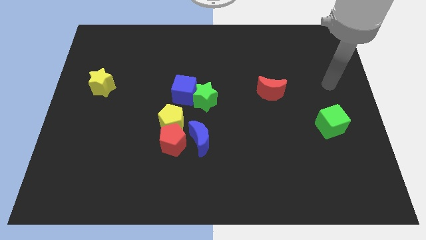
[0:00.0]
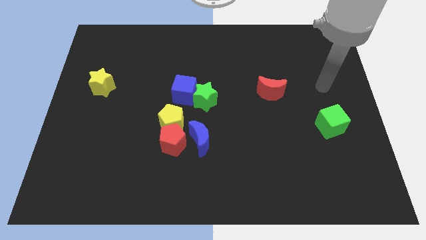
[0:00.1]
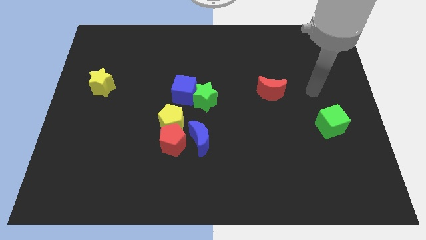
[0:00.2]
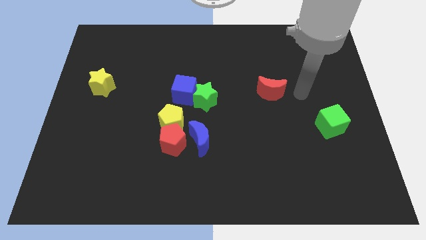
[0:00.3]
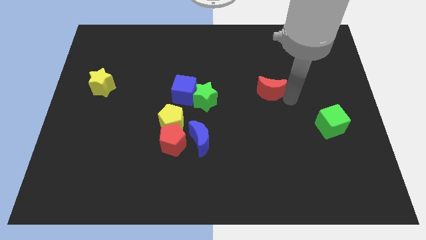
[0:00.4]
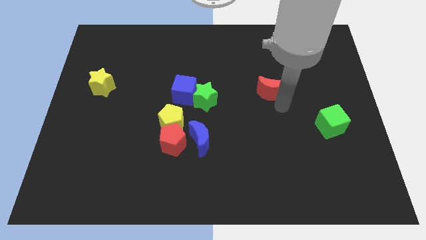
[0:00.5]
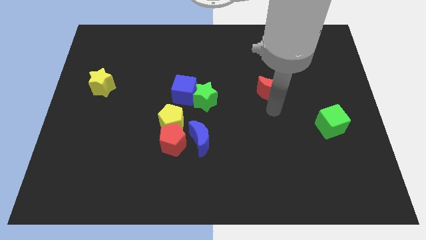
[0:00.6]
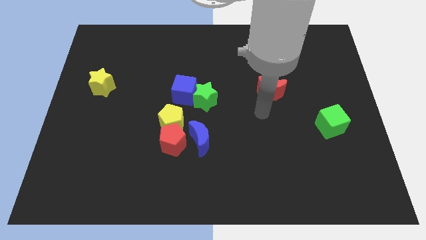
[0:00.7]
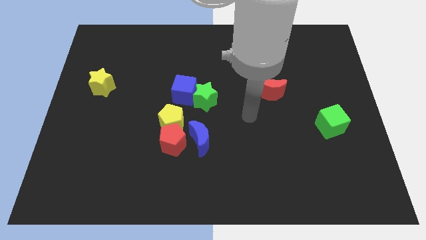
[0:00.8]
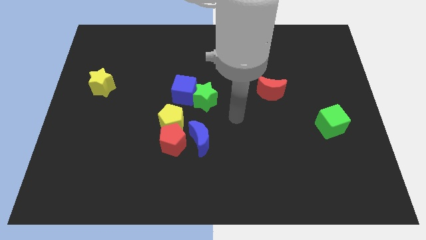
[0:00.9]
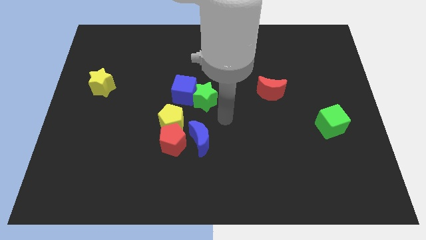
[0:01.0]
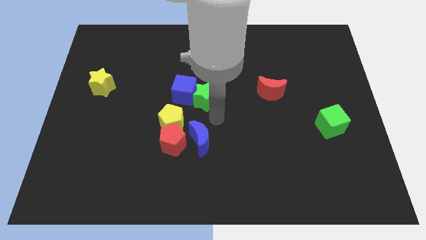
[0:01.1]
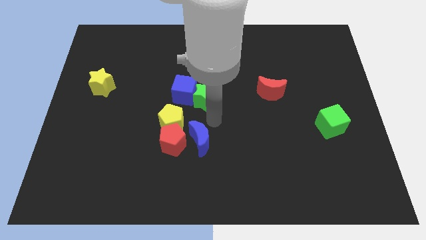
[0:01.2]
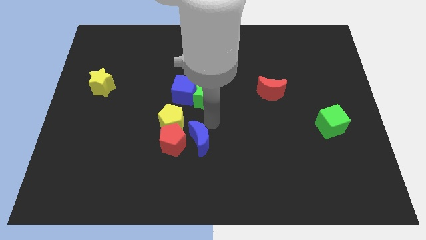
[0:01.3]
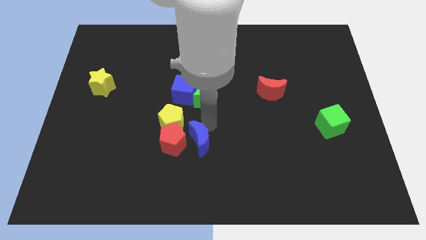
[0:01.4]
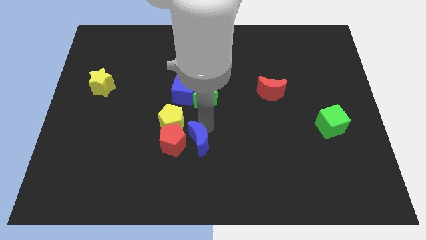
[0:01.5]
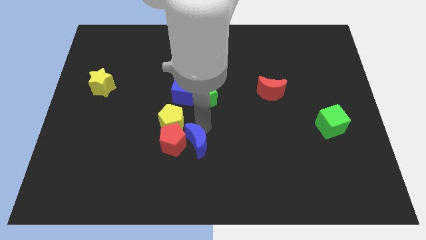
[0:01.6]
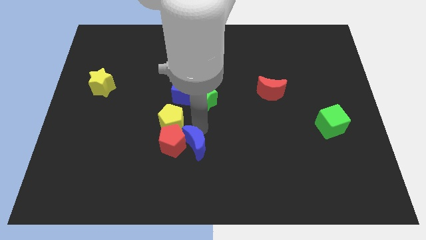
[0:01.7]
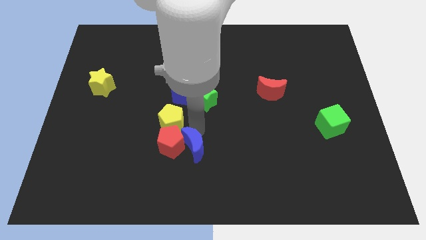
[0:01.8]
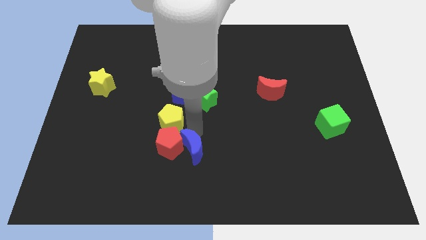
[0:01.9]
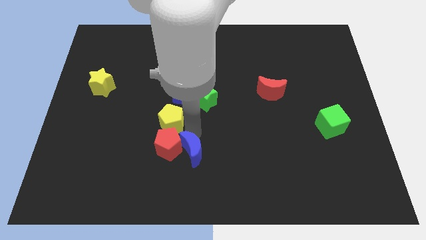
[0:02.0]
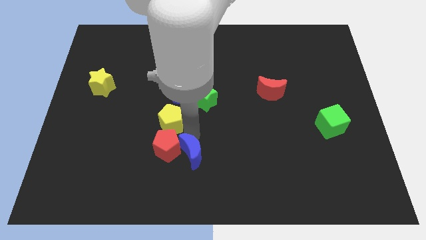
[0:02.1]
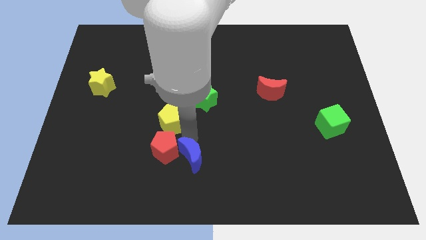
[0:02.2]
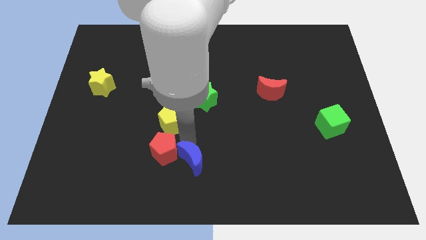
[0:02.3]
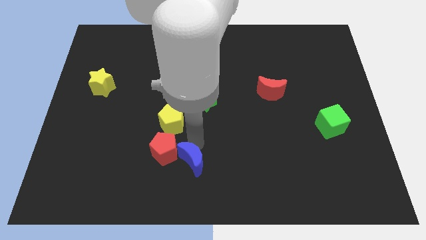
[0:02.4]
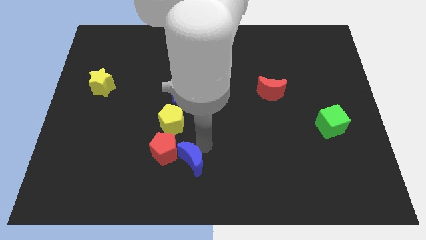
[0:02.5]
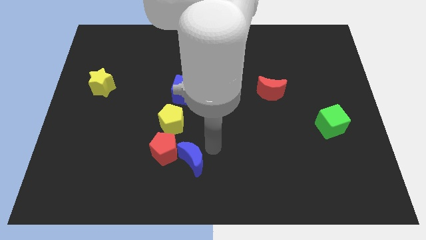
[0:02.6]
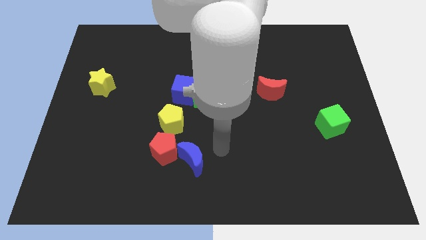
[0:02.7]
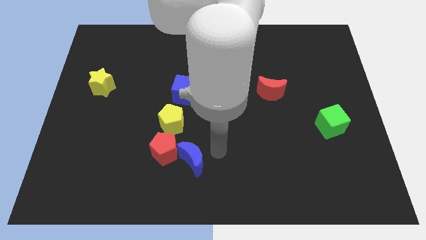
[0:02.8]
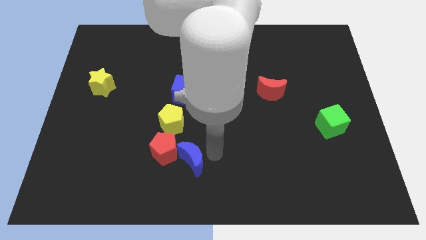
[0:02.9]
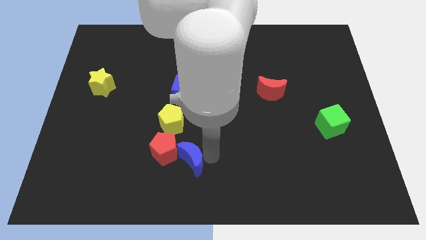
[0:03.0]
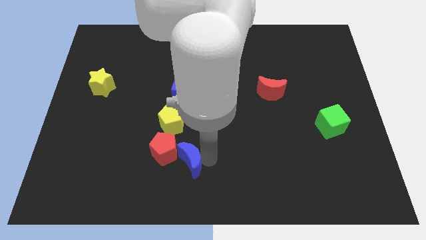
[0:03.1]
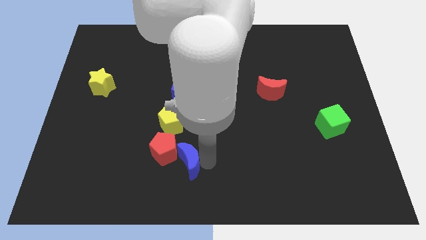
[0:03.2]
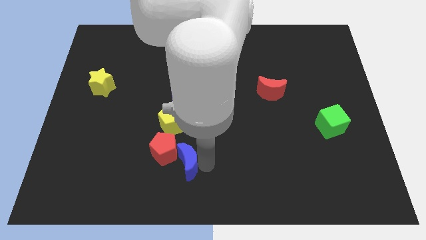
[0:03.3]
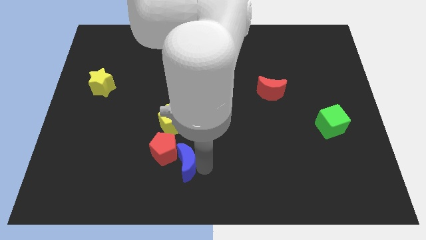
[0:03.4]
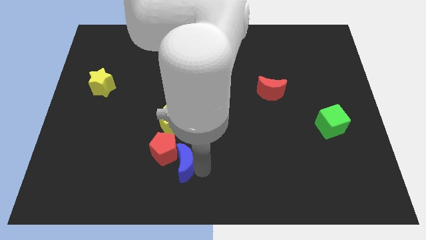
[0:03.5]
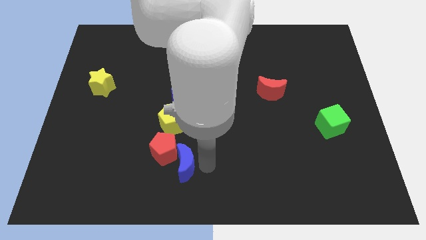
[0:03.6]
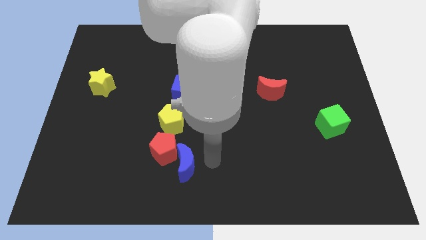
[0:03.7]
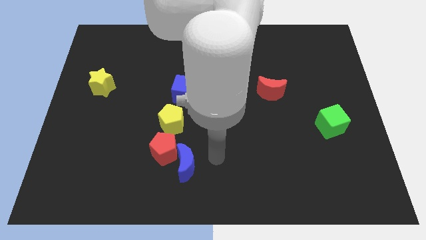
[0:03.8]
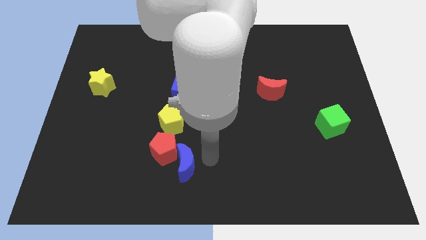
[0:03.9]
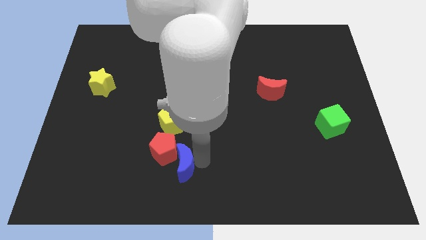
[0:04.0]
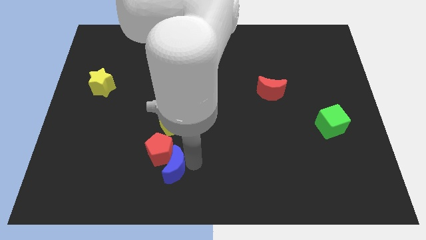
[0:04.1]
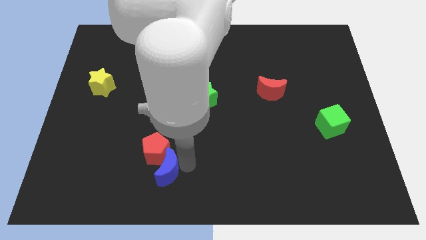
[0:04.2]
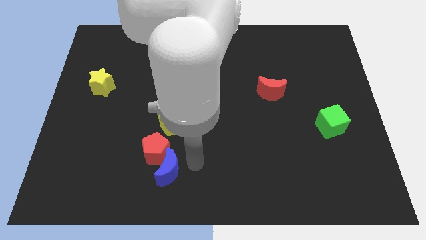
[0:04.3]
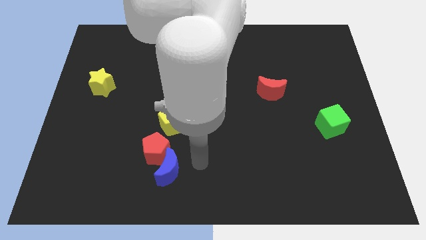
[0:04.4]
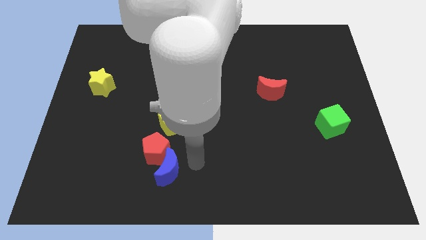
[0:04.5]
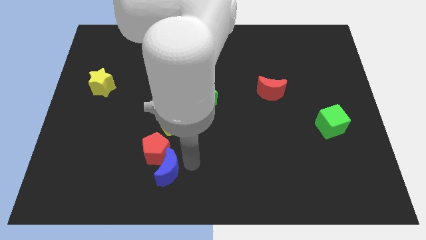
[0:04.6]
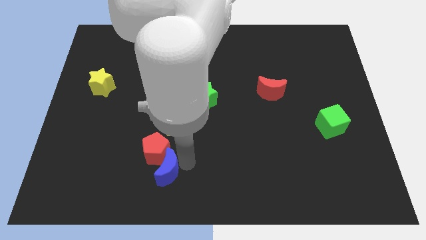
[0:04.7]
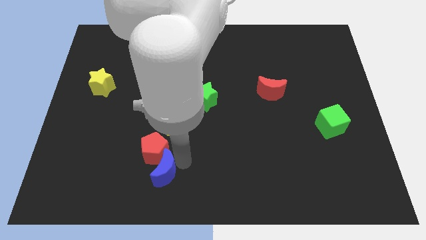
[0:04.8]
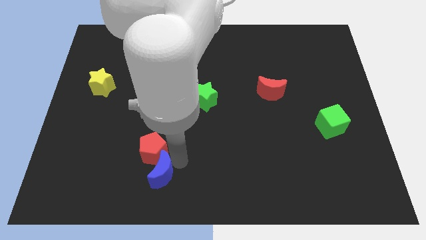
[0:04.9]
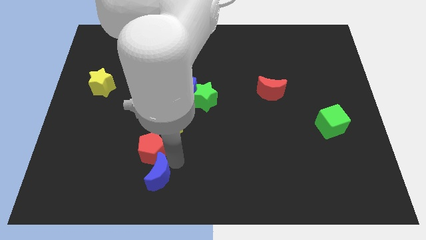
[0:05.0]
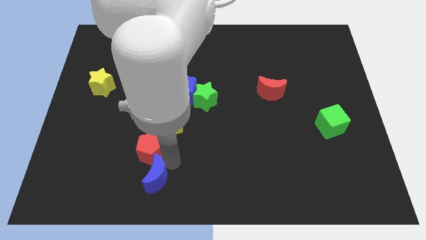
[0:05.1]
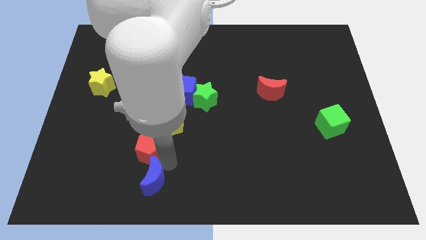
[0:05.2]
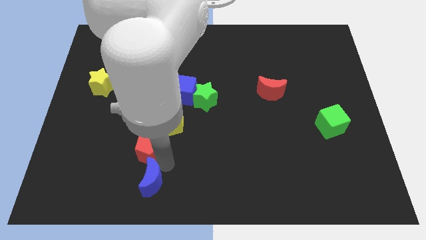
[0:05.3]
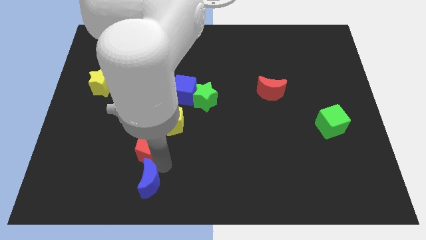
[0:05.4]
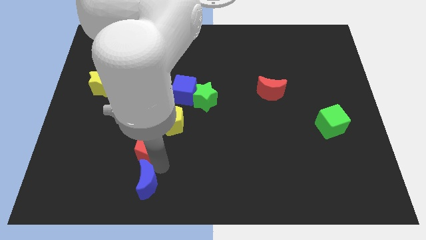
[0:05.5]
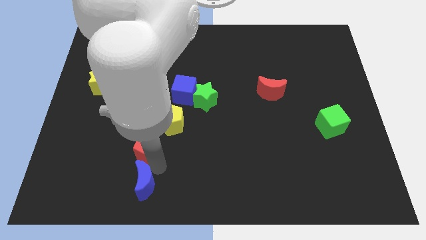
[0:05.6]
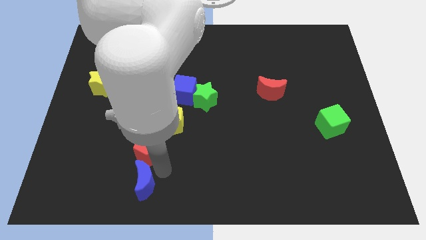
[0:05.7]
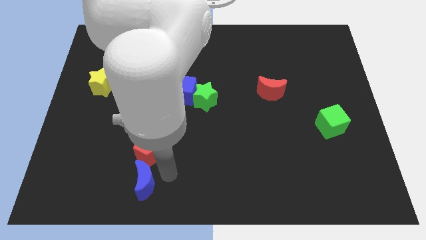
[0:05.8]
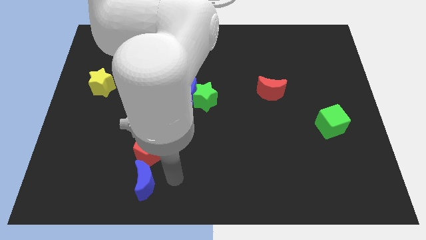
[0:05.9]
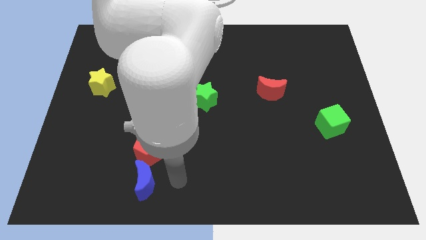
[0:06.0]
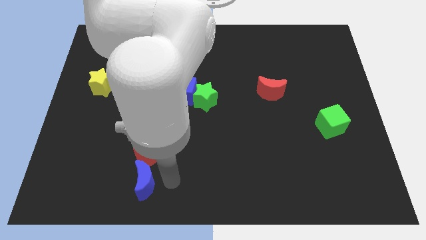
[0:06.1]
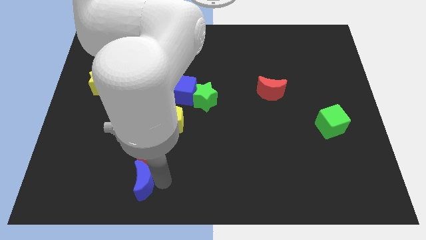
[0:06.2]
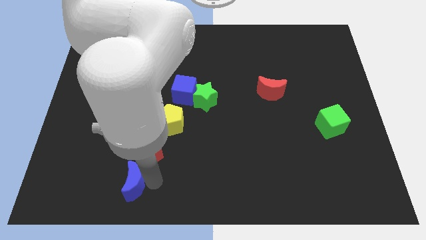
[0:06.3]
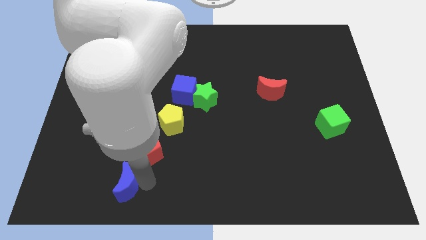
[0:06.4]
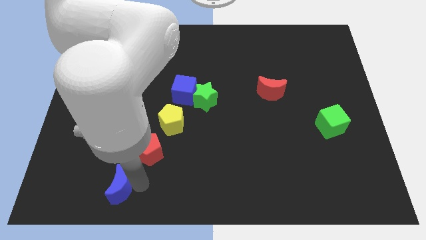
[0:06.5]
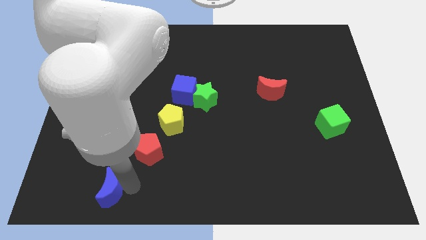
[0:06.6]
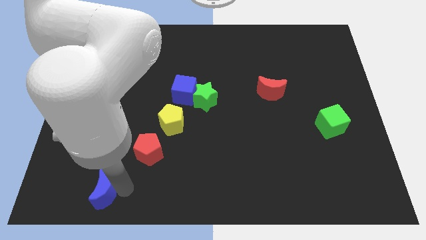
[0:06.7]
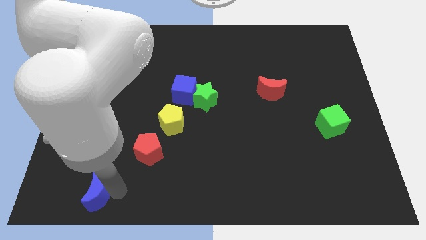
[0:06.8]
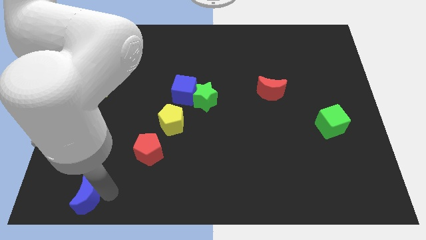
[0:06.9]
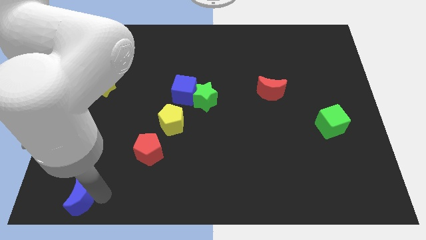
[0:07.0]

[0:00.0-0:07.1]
put the blue moon to the lower left corner
